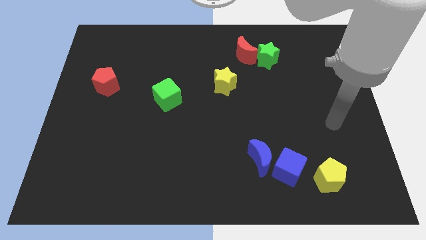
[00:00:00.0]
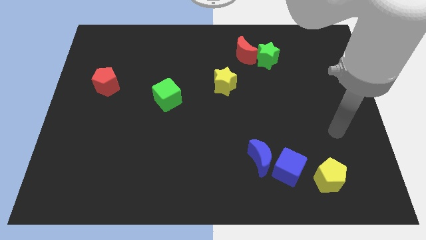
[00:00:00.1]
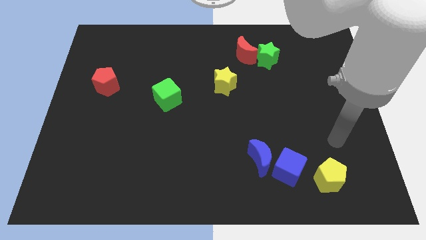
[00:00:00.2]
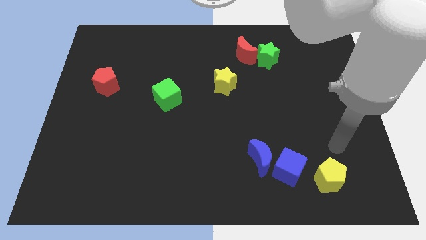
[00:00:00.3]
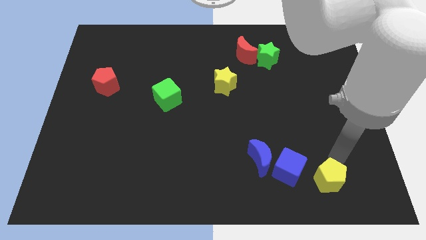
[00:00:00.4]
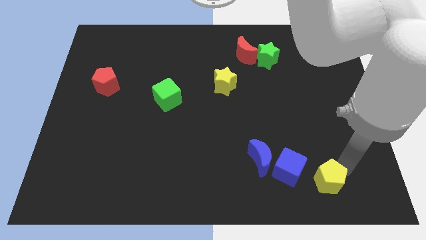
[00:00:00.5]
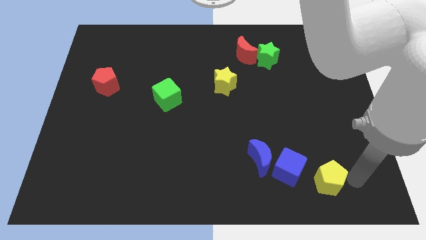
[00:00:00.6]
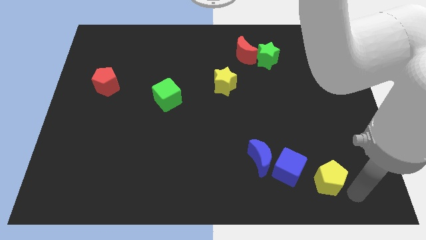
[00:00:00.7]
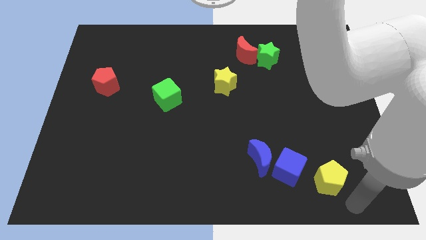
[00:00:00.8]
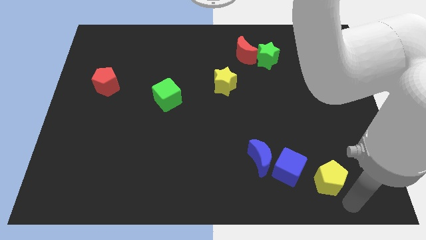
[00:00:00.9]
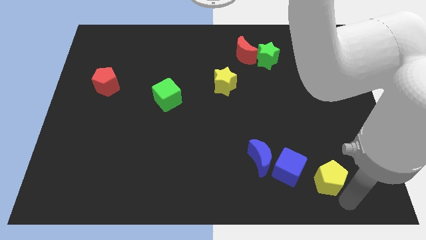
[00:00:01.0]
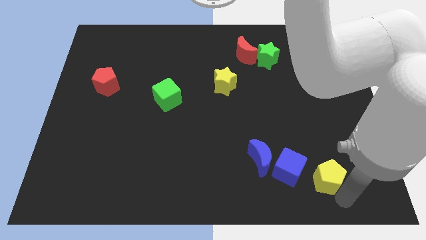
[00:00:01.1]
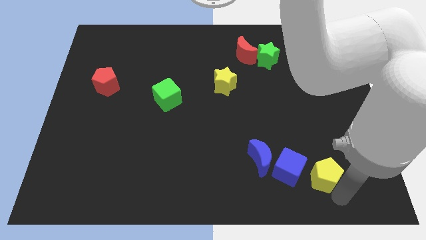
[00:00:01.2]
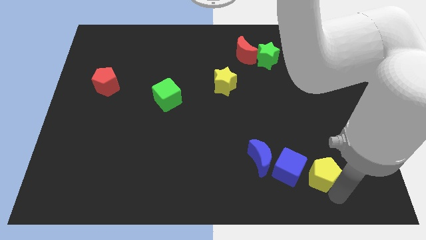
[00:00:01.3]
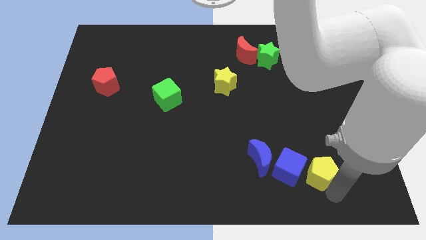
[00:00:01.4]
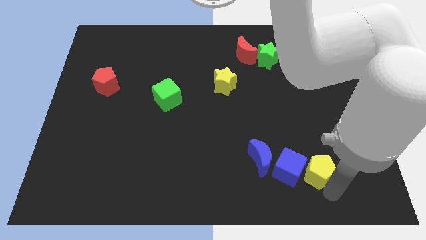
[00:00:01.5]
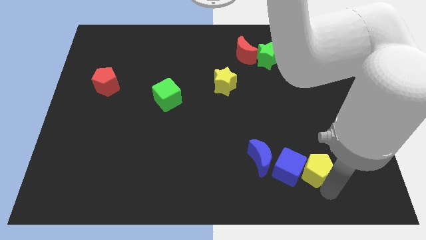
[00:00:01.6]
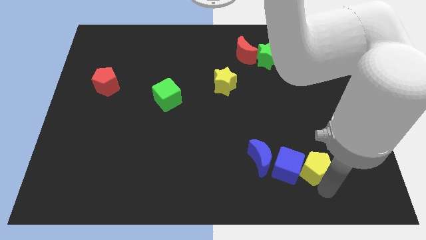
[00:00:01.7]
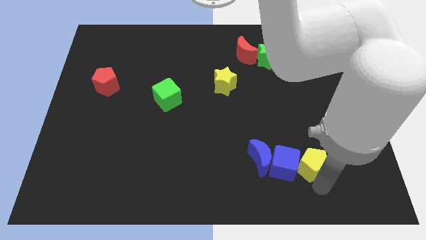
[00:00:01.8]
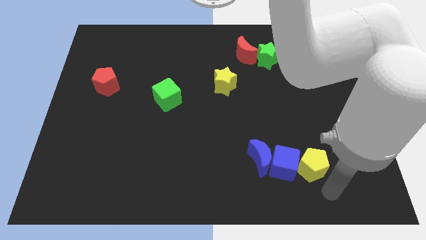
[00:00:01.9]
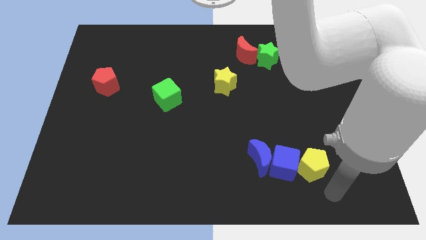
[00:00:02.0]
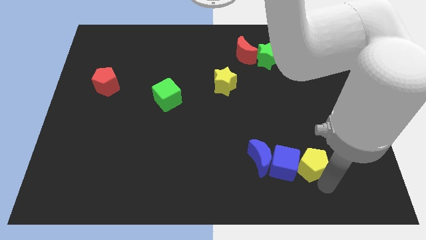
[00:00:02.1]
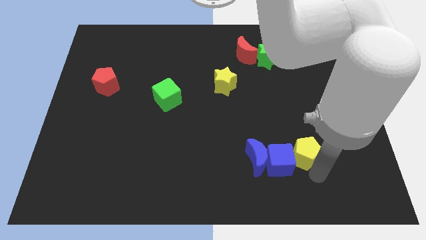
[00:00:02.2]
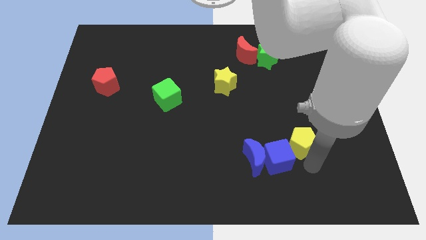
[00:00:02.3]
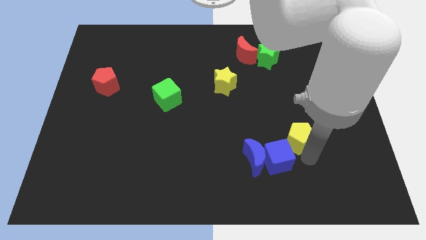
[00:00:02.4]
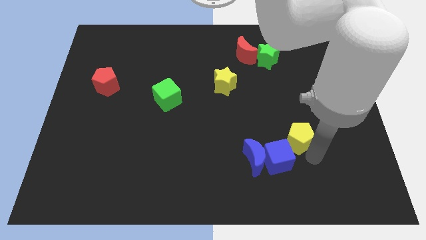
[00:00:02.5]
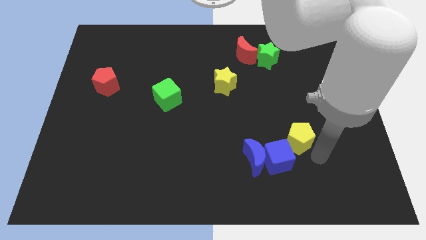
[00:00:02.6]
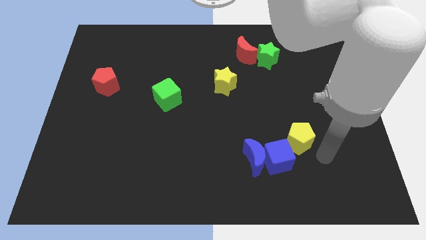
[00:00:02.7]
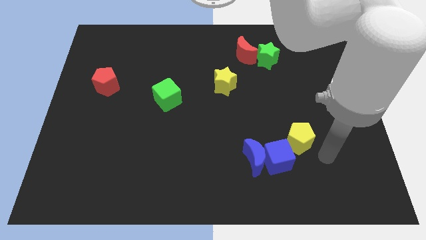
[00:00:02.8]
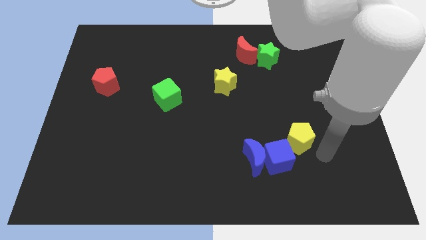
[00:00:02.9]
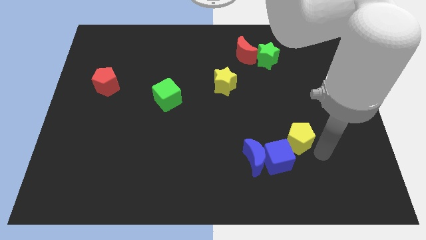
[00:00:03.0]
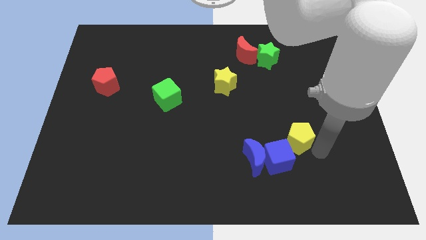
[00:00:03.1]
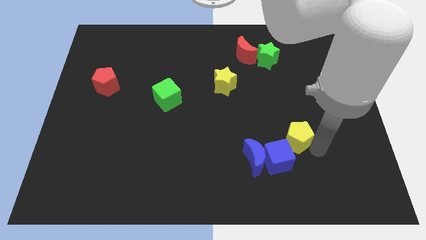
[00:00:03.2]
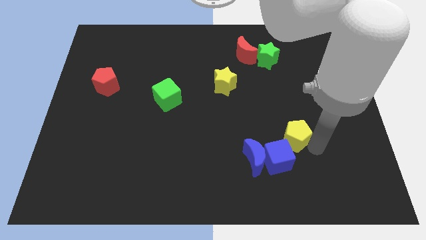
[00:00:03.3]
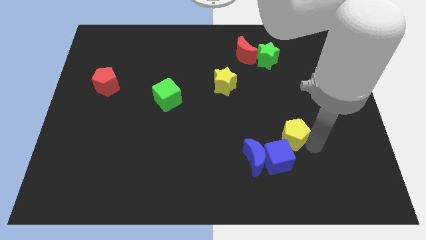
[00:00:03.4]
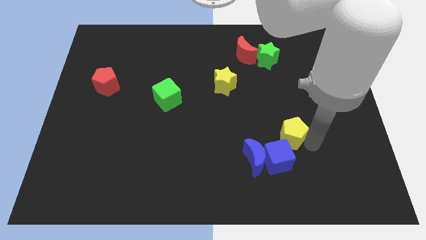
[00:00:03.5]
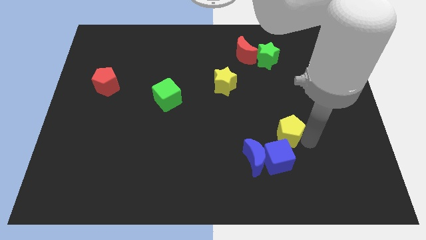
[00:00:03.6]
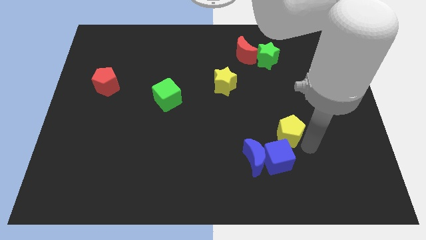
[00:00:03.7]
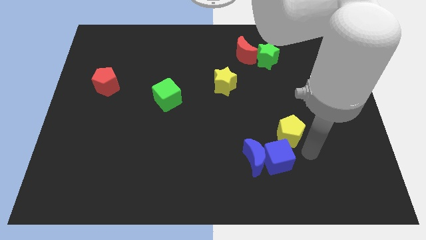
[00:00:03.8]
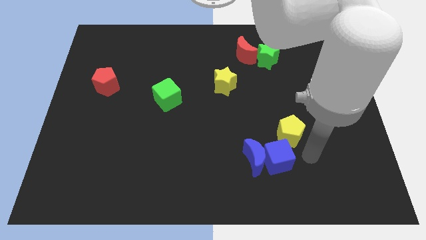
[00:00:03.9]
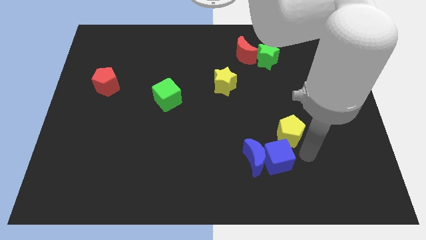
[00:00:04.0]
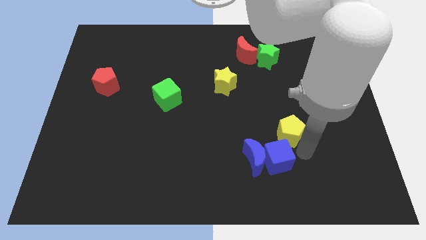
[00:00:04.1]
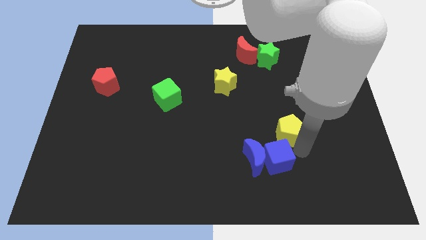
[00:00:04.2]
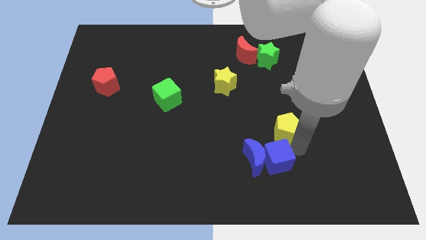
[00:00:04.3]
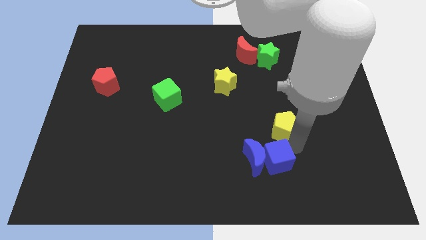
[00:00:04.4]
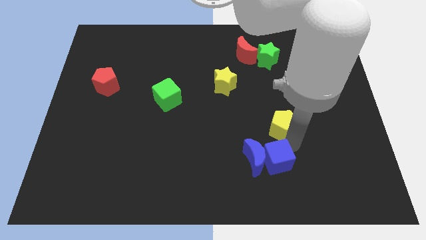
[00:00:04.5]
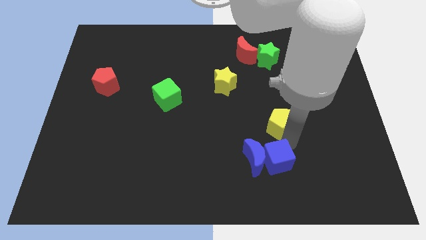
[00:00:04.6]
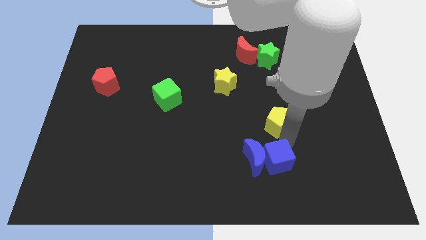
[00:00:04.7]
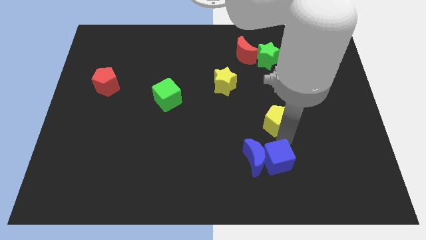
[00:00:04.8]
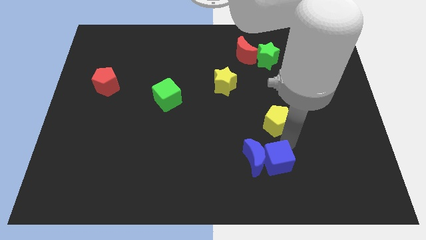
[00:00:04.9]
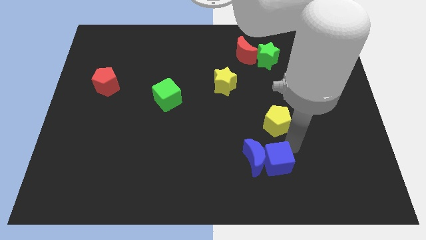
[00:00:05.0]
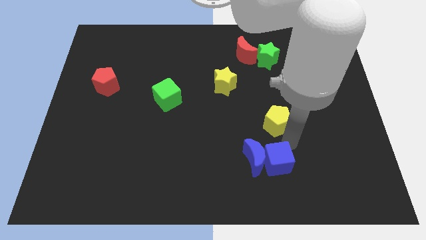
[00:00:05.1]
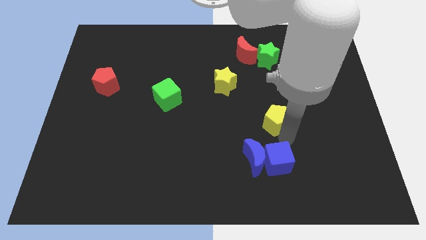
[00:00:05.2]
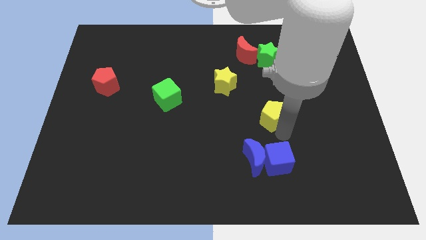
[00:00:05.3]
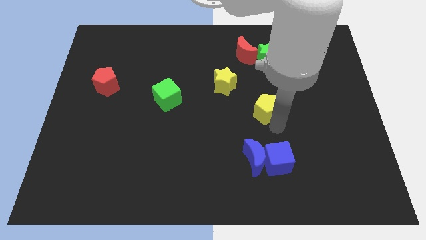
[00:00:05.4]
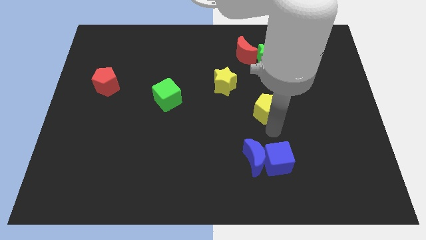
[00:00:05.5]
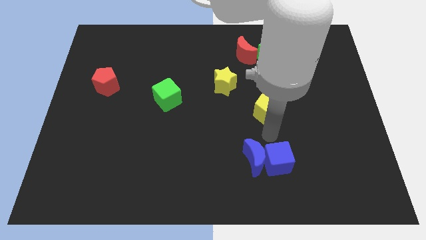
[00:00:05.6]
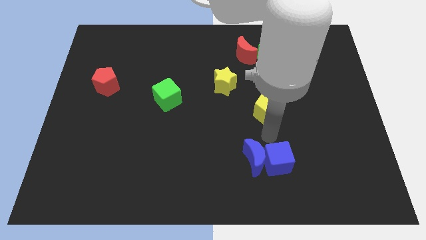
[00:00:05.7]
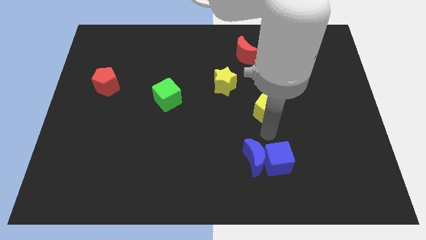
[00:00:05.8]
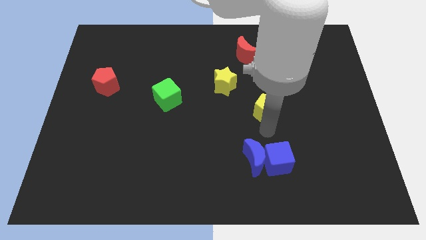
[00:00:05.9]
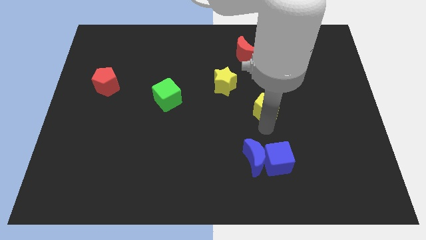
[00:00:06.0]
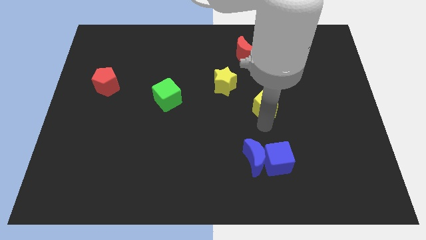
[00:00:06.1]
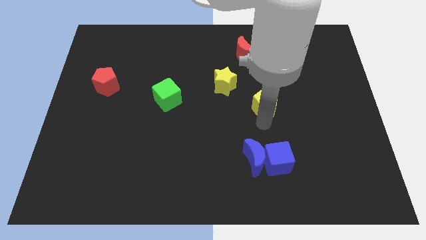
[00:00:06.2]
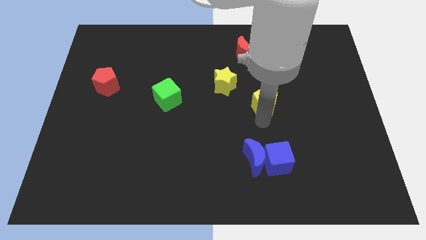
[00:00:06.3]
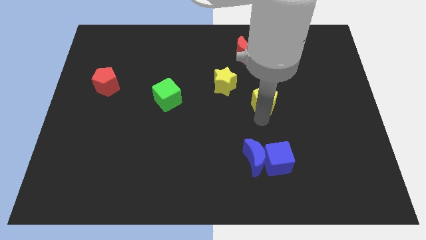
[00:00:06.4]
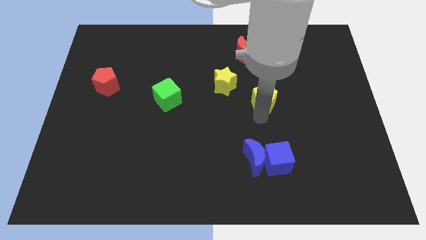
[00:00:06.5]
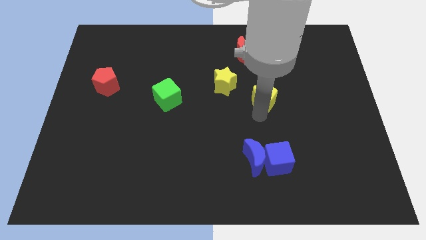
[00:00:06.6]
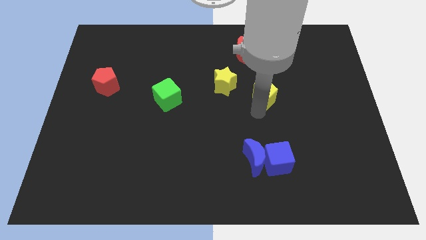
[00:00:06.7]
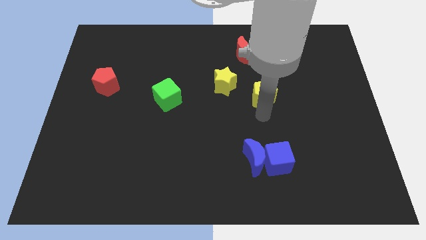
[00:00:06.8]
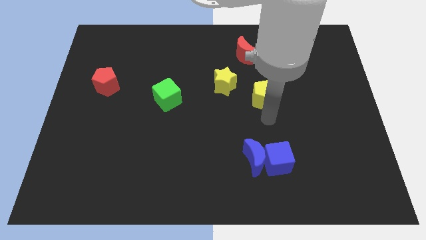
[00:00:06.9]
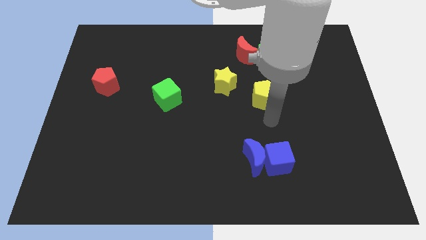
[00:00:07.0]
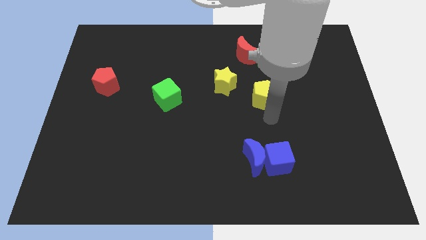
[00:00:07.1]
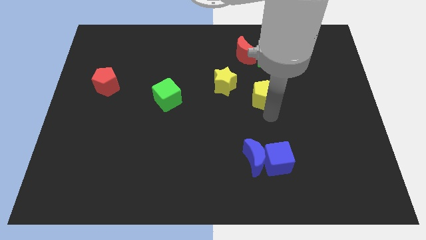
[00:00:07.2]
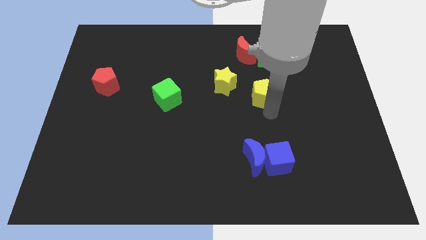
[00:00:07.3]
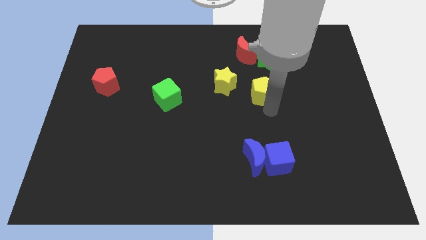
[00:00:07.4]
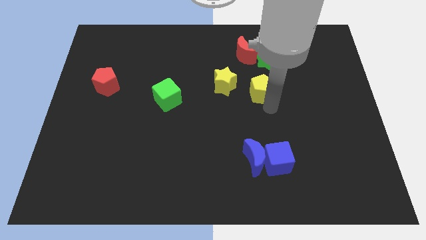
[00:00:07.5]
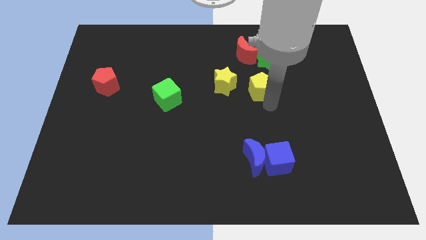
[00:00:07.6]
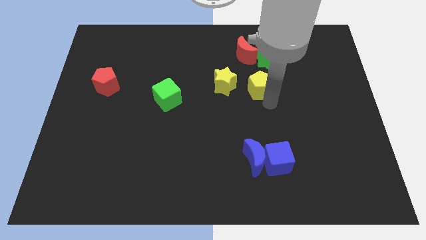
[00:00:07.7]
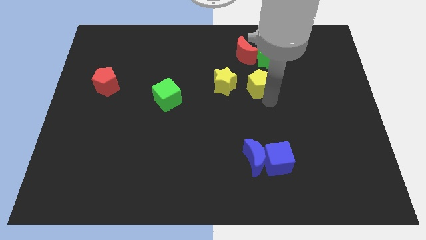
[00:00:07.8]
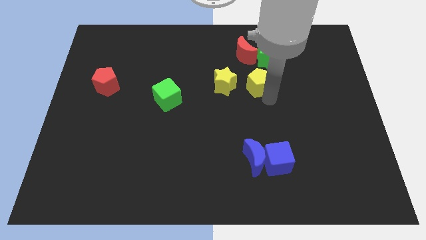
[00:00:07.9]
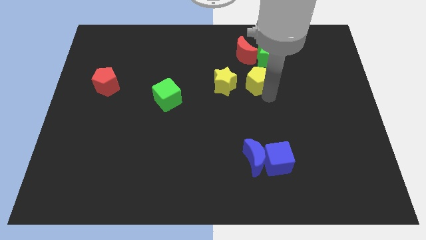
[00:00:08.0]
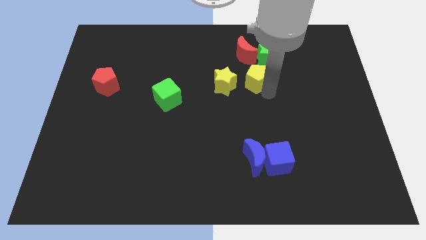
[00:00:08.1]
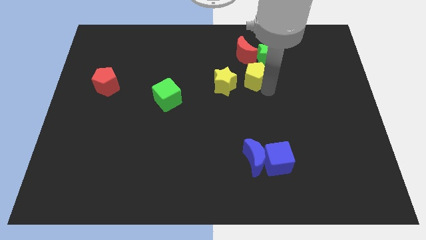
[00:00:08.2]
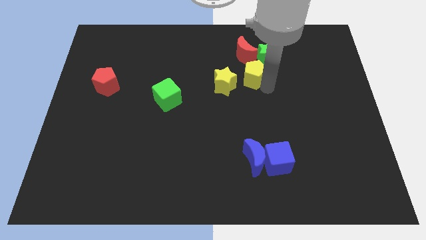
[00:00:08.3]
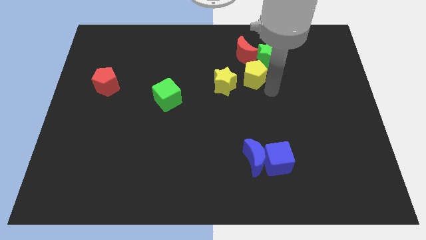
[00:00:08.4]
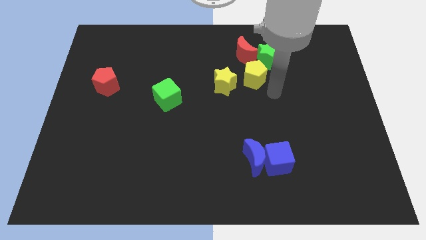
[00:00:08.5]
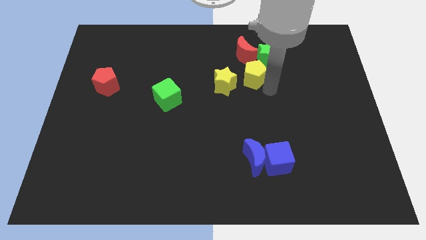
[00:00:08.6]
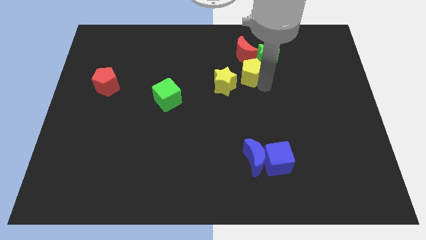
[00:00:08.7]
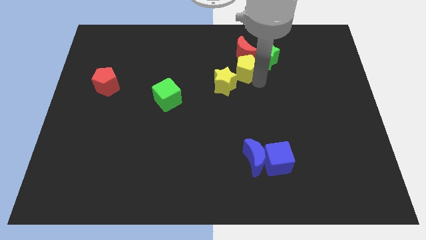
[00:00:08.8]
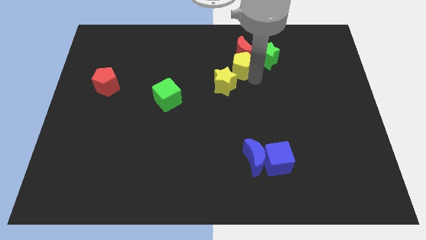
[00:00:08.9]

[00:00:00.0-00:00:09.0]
slide the yellow pentagon to the top side of the yellow star
